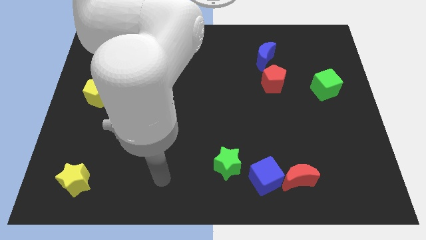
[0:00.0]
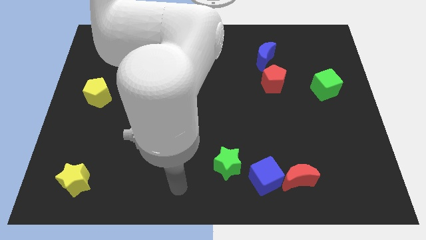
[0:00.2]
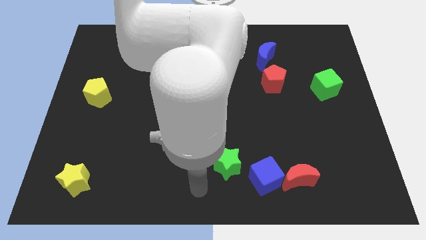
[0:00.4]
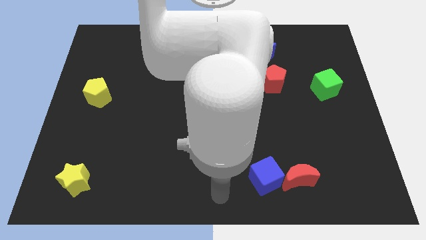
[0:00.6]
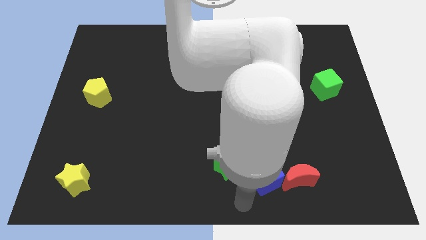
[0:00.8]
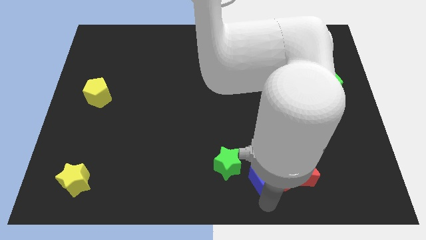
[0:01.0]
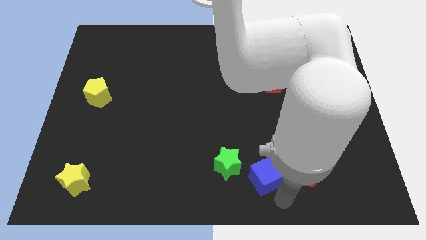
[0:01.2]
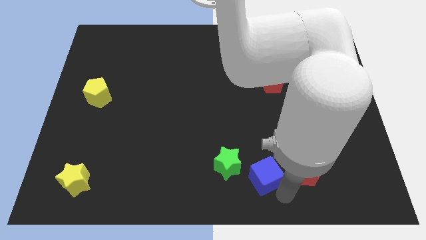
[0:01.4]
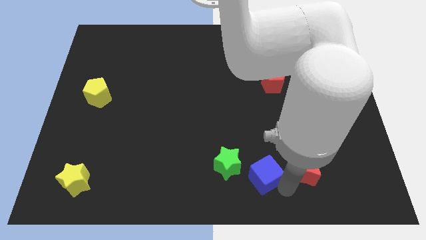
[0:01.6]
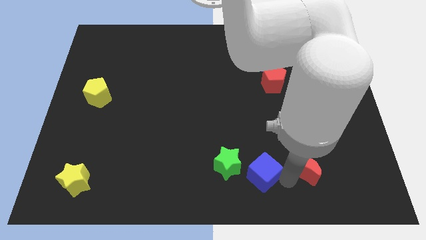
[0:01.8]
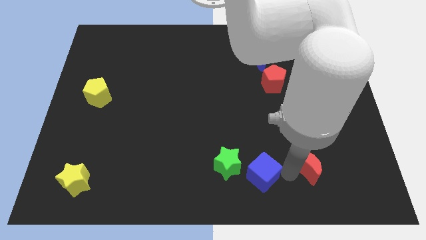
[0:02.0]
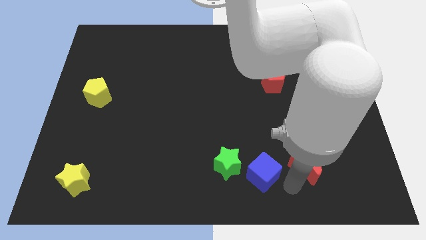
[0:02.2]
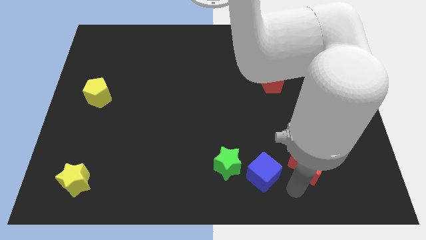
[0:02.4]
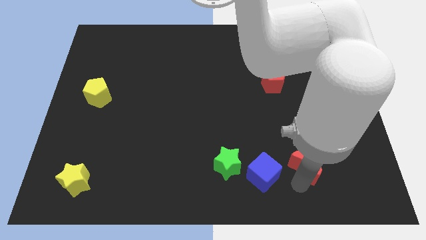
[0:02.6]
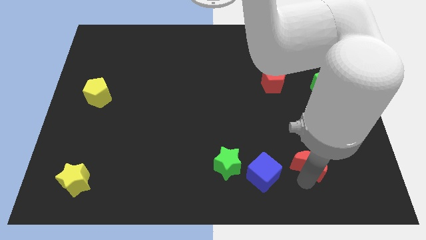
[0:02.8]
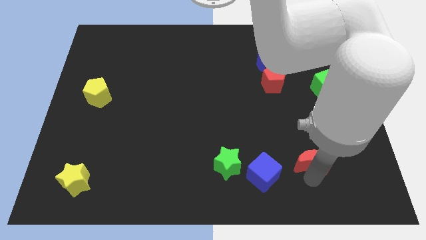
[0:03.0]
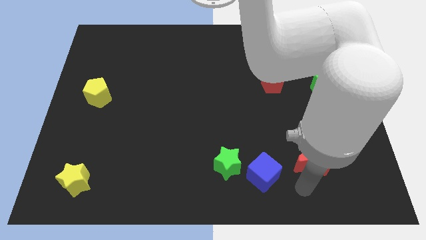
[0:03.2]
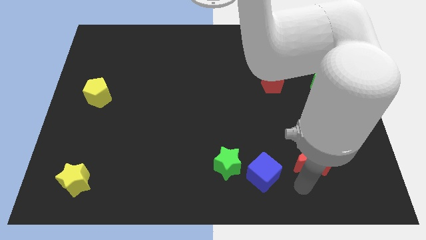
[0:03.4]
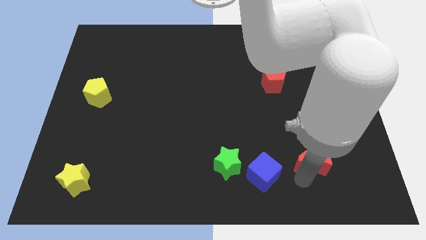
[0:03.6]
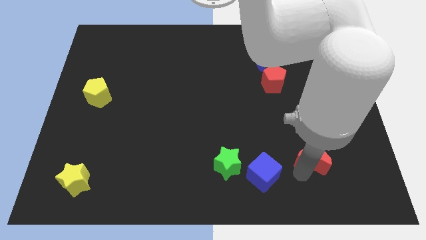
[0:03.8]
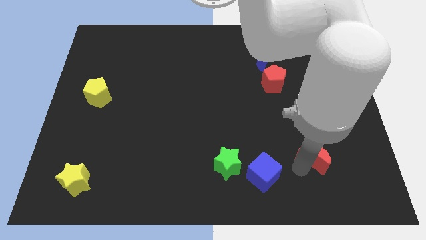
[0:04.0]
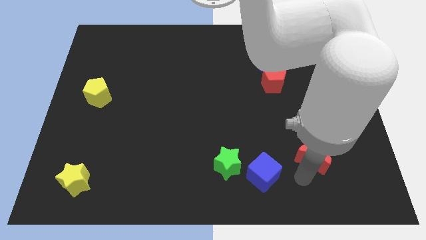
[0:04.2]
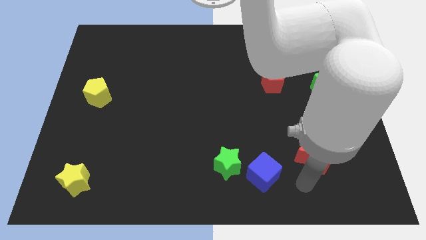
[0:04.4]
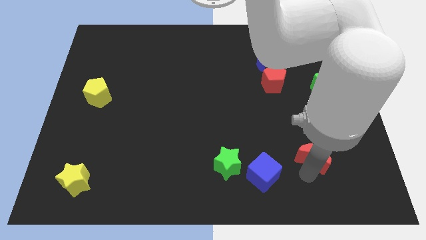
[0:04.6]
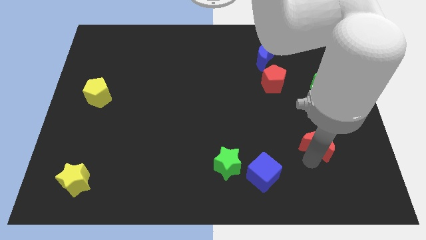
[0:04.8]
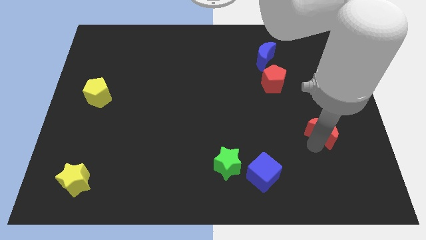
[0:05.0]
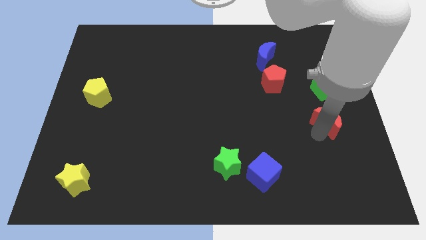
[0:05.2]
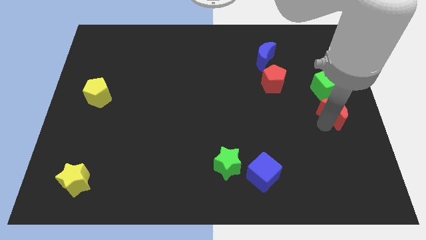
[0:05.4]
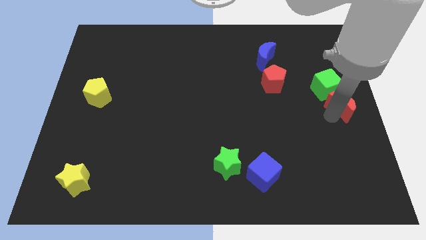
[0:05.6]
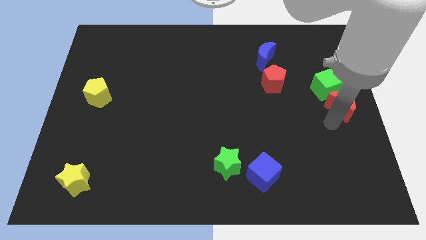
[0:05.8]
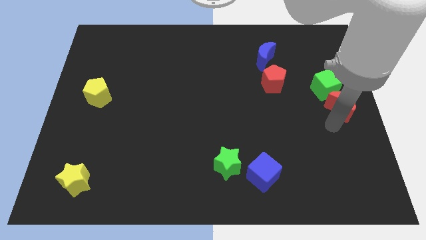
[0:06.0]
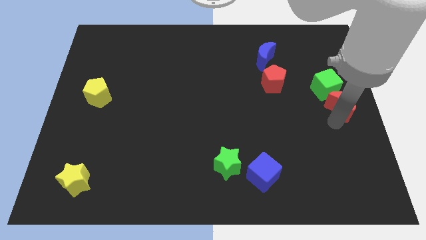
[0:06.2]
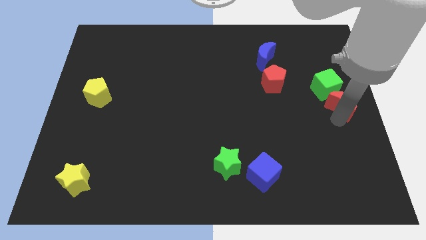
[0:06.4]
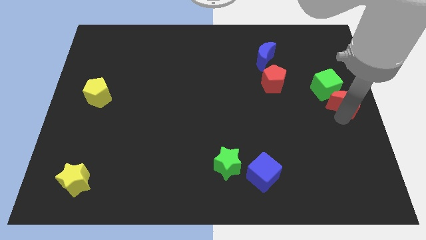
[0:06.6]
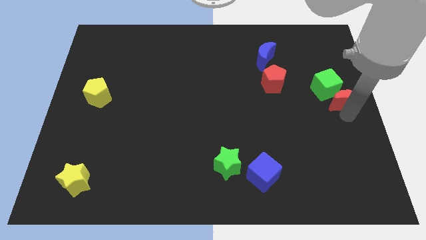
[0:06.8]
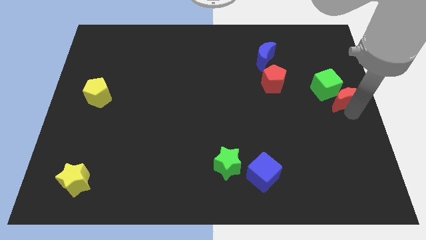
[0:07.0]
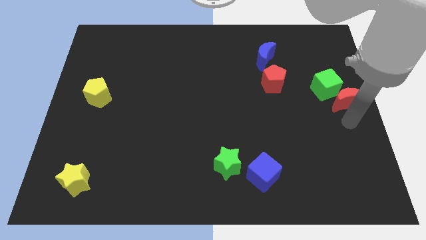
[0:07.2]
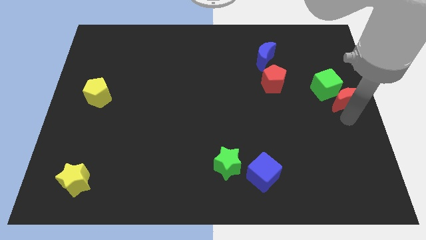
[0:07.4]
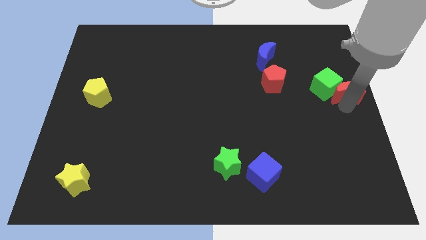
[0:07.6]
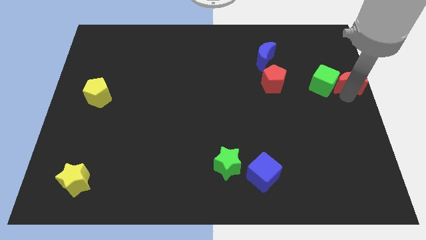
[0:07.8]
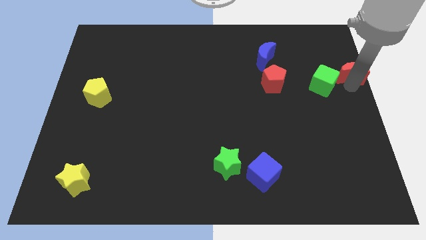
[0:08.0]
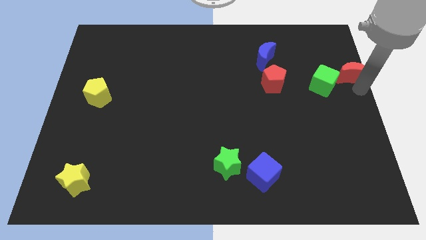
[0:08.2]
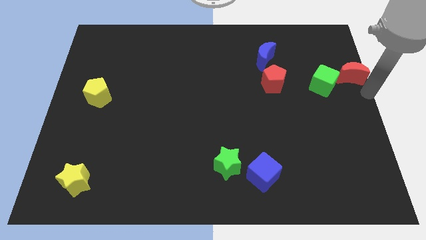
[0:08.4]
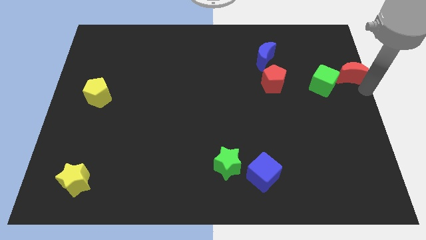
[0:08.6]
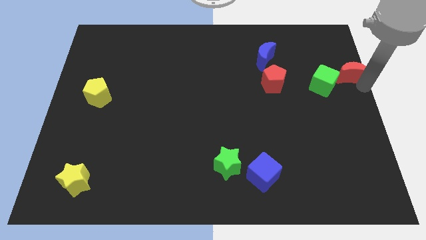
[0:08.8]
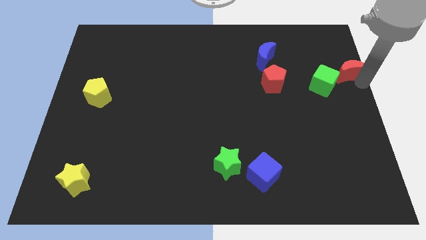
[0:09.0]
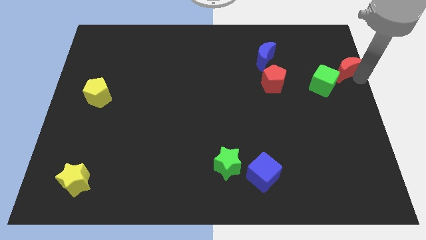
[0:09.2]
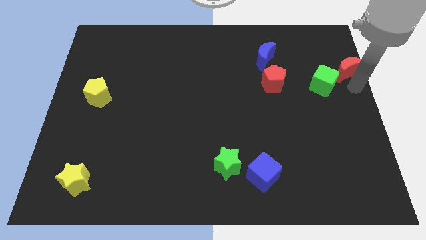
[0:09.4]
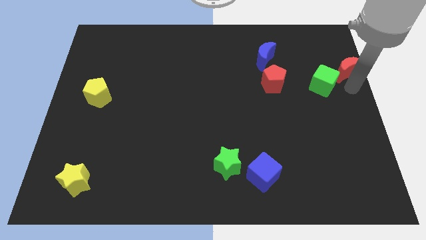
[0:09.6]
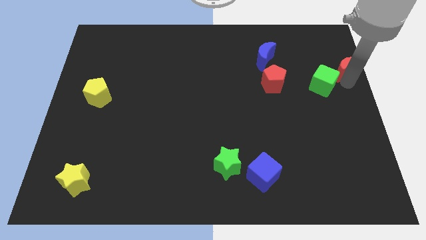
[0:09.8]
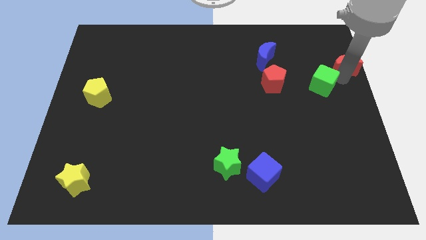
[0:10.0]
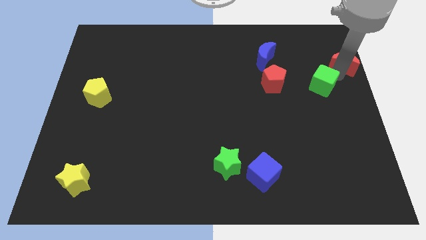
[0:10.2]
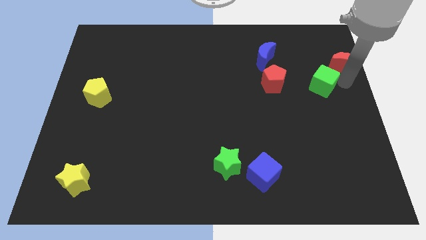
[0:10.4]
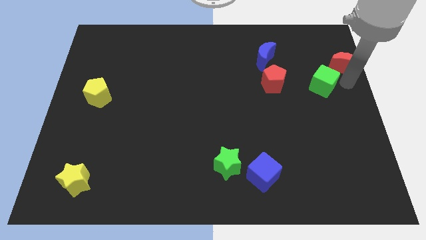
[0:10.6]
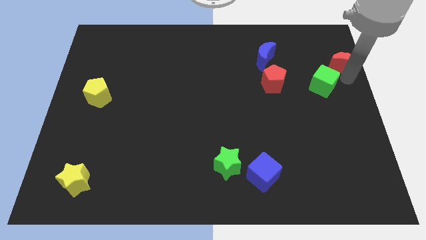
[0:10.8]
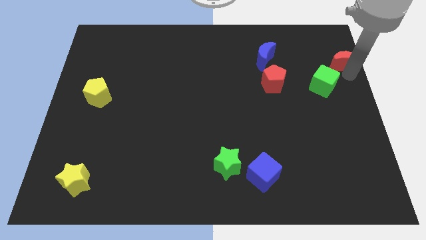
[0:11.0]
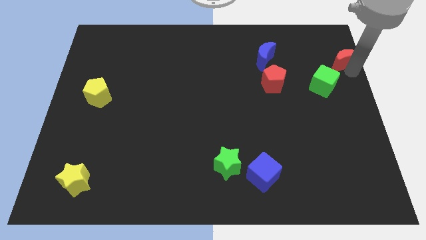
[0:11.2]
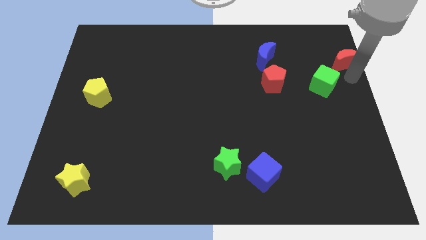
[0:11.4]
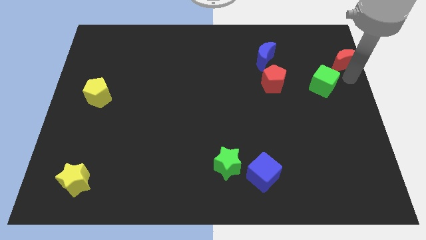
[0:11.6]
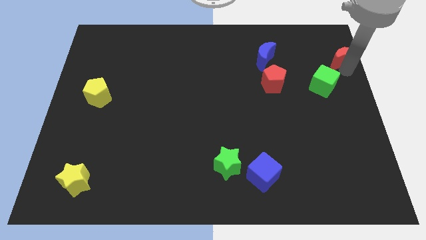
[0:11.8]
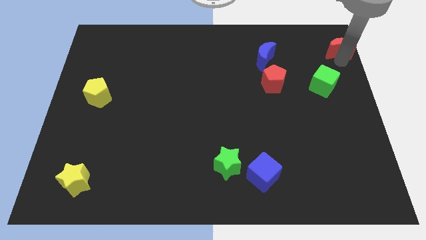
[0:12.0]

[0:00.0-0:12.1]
slide the red moon to the upper right corner

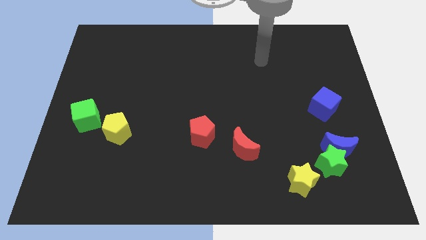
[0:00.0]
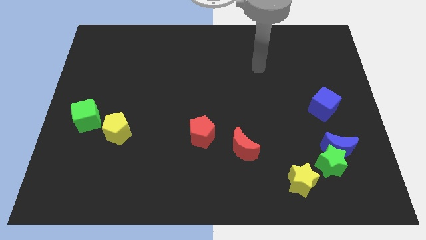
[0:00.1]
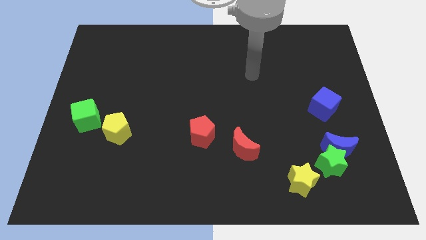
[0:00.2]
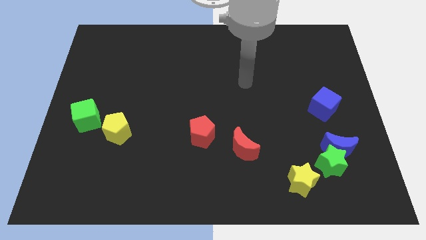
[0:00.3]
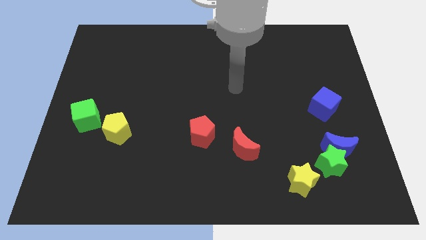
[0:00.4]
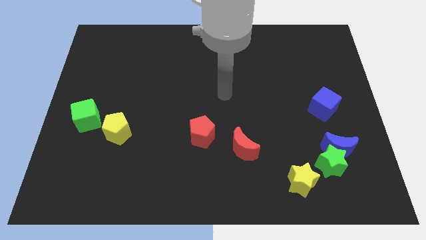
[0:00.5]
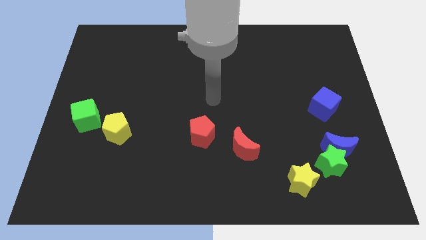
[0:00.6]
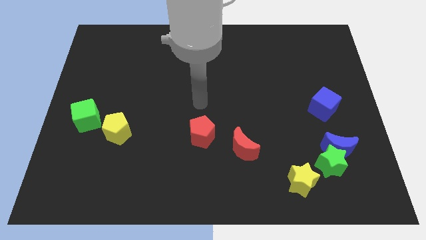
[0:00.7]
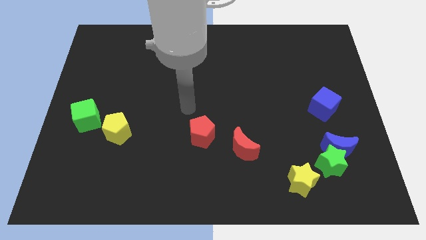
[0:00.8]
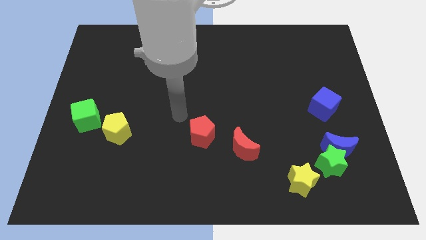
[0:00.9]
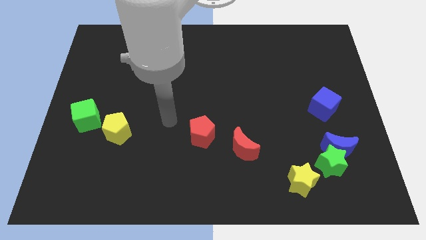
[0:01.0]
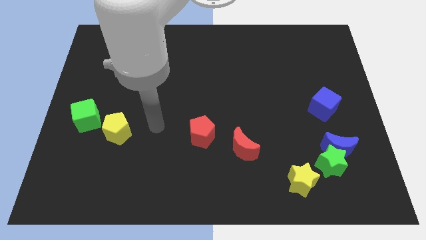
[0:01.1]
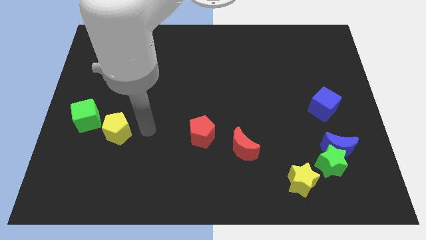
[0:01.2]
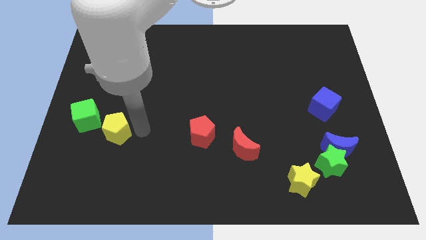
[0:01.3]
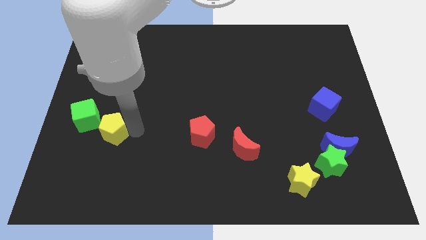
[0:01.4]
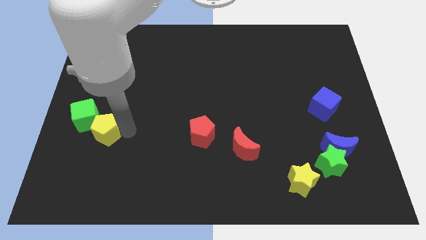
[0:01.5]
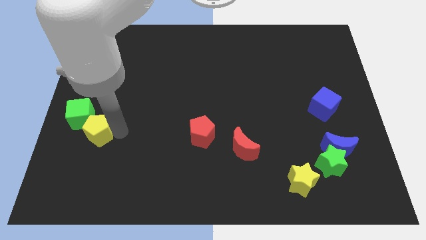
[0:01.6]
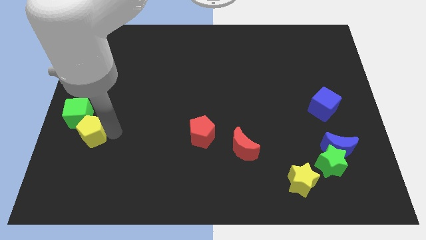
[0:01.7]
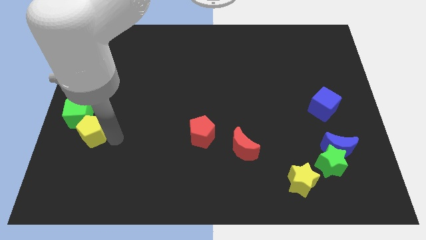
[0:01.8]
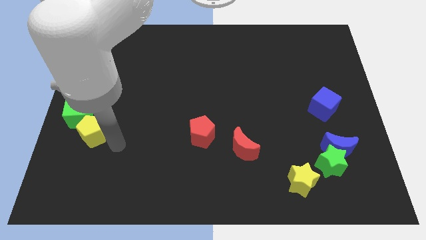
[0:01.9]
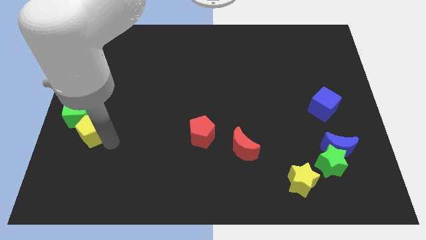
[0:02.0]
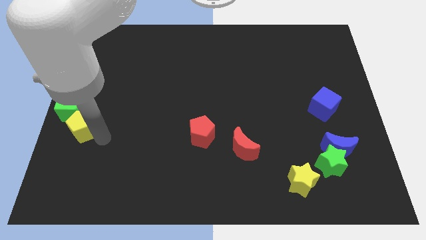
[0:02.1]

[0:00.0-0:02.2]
put the yellow pentagon to the center left
